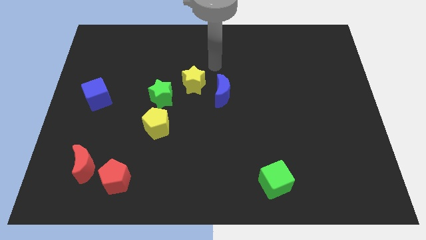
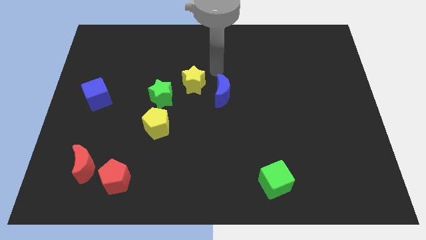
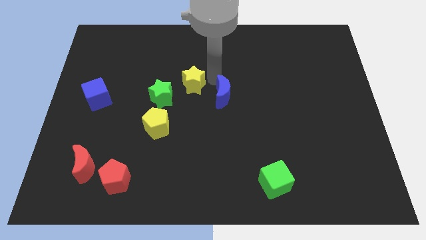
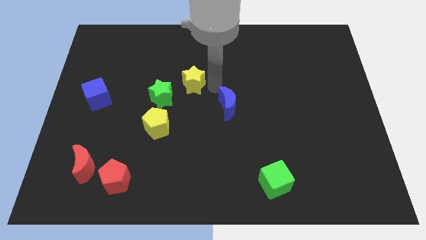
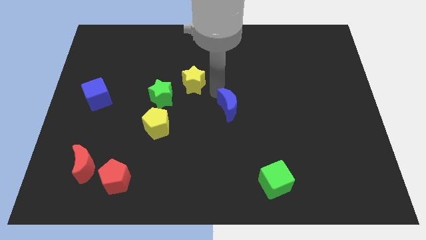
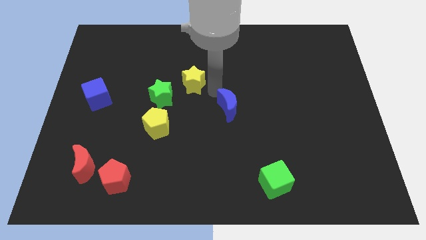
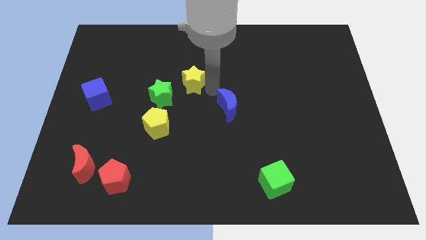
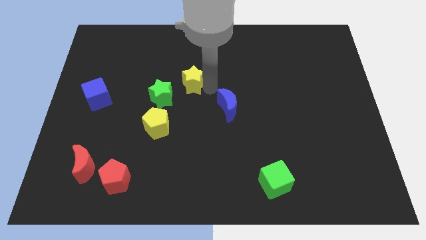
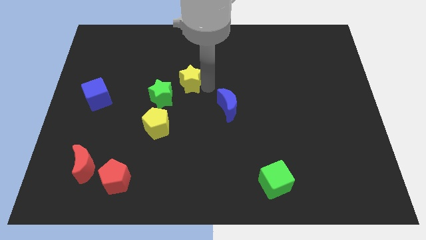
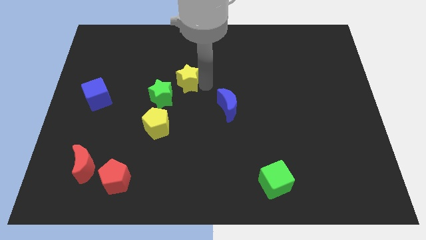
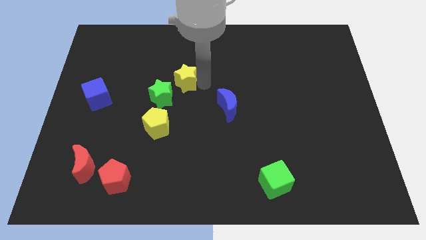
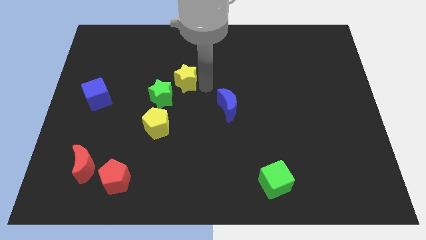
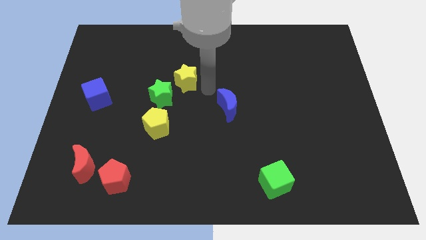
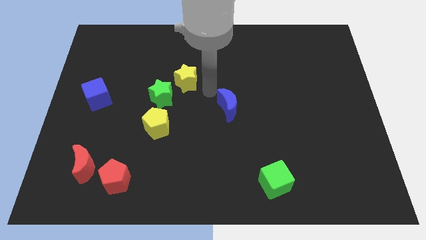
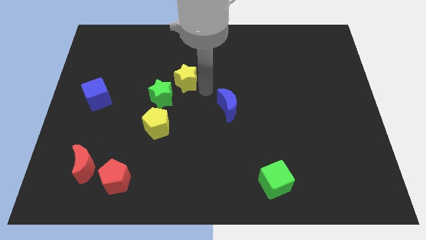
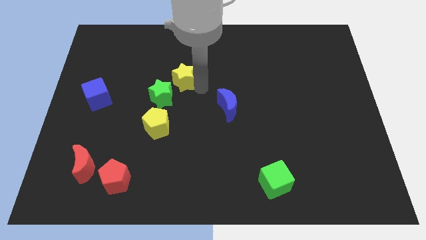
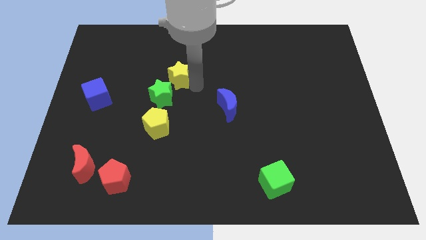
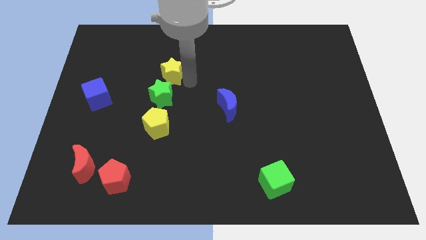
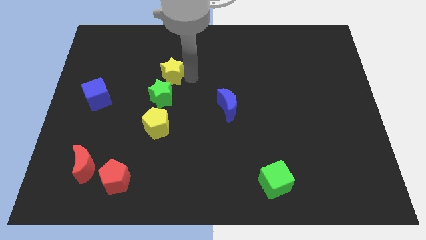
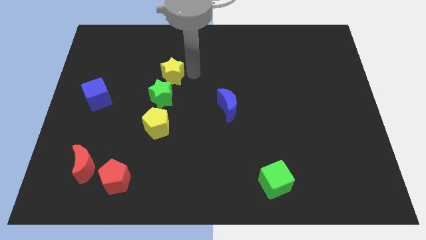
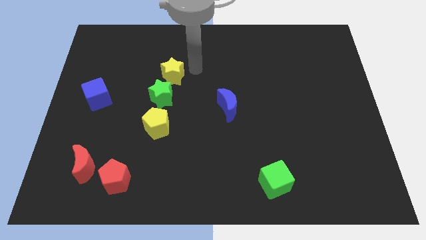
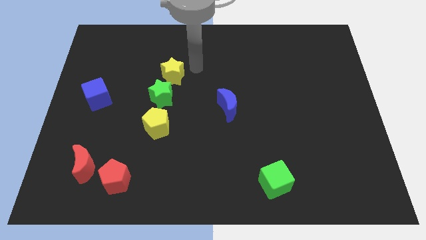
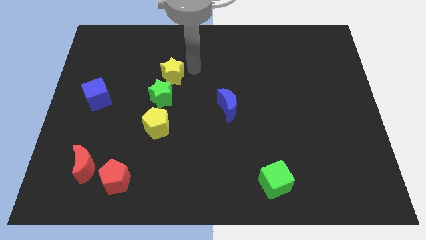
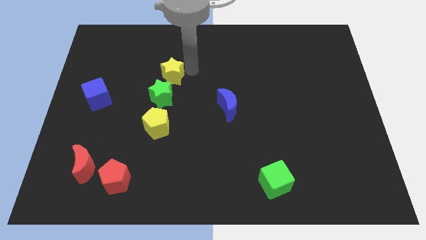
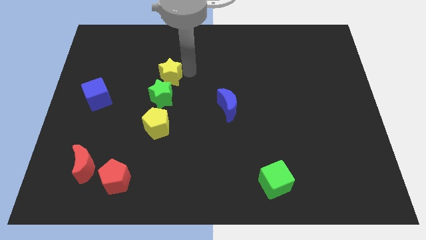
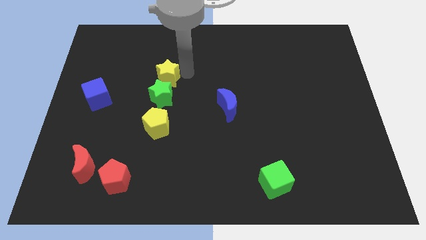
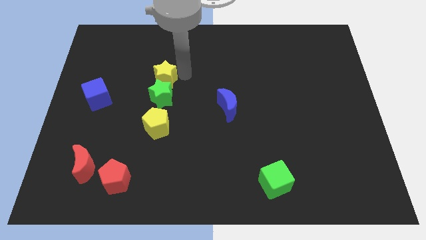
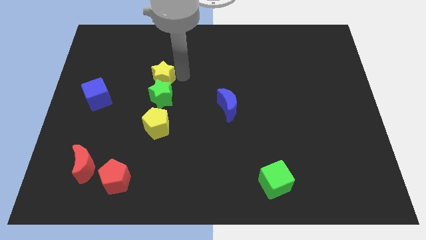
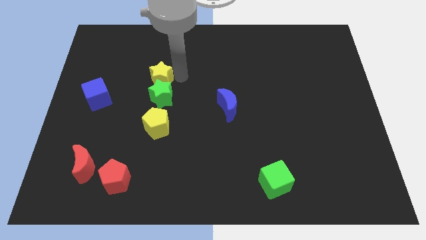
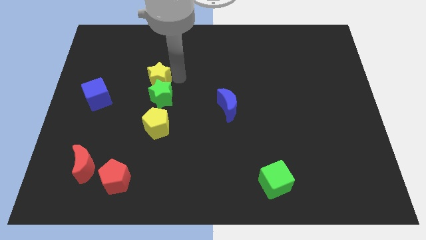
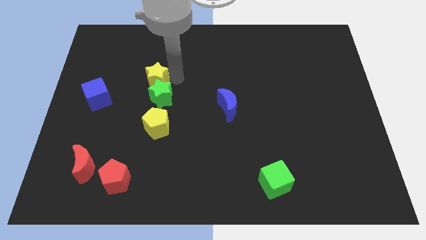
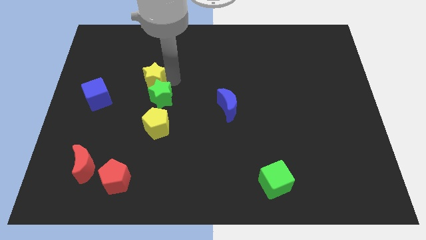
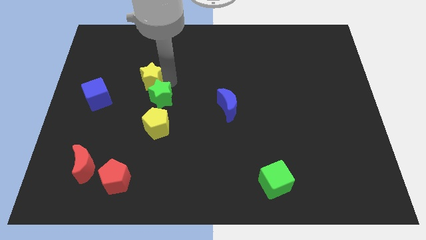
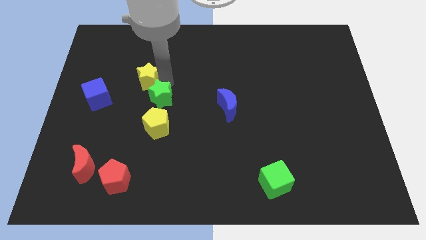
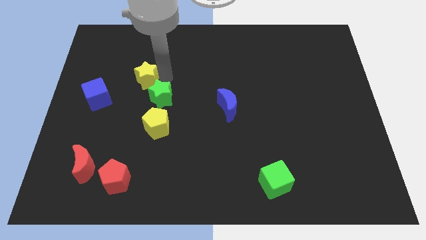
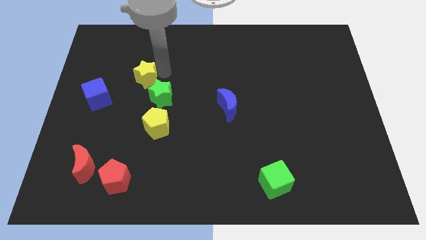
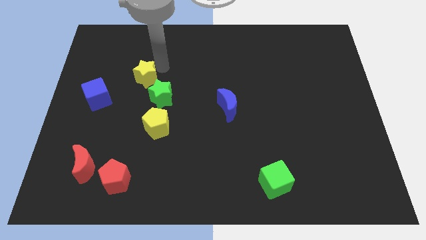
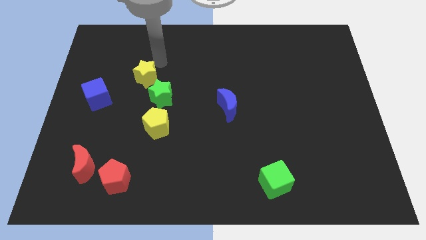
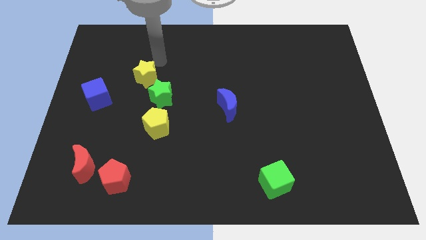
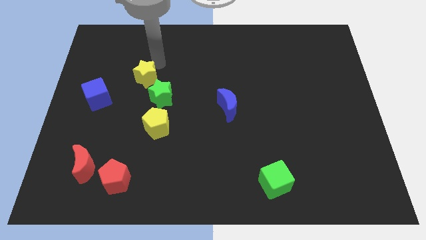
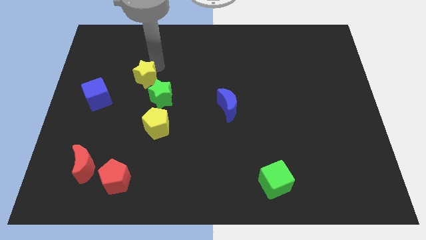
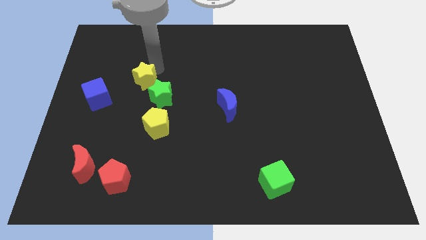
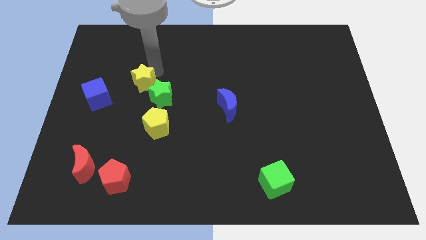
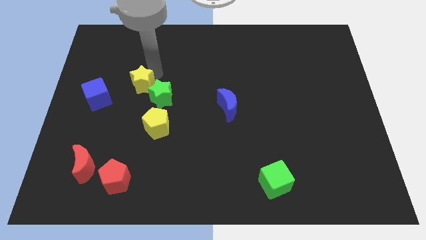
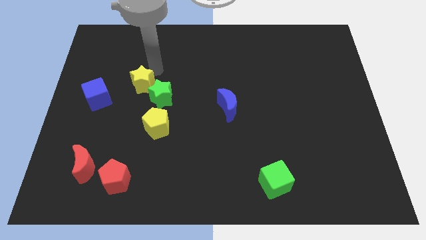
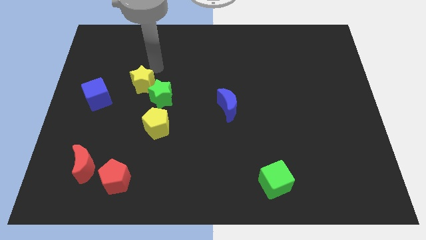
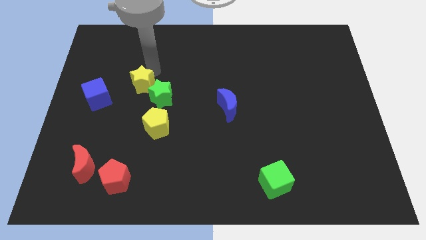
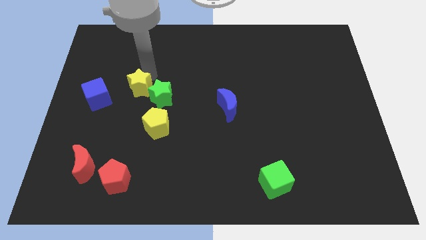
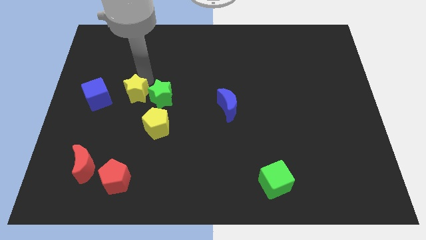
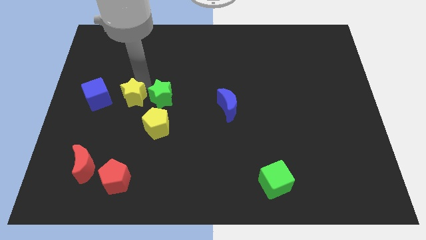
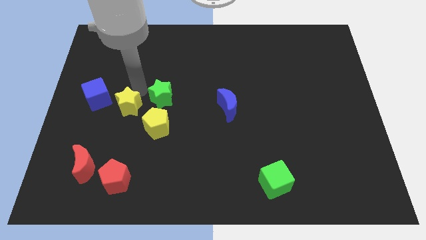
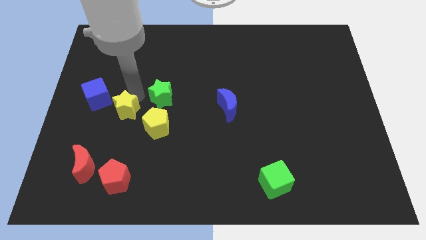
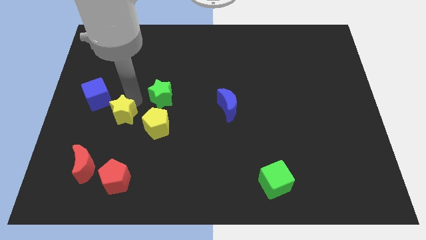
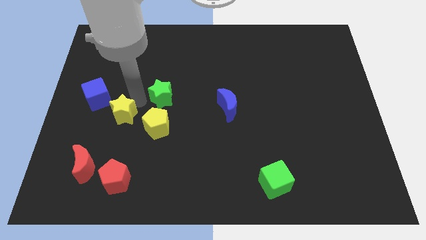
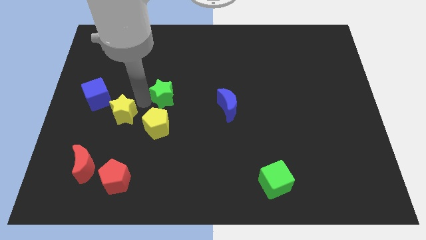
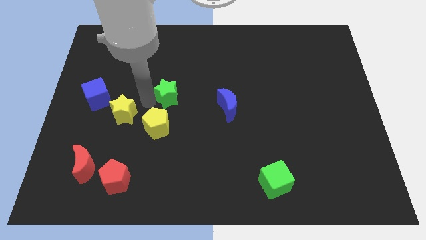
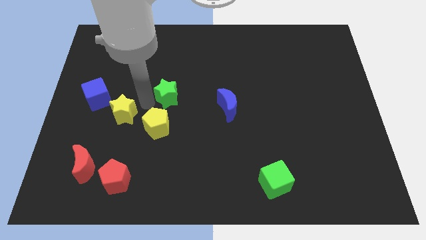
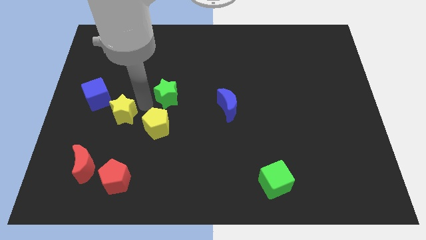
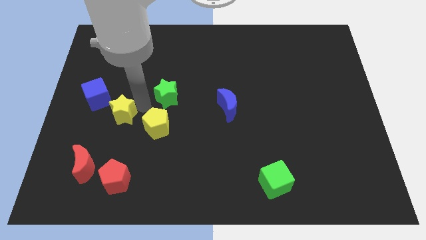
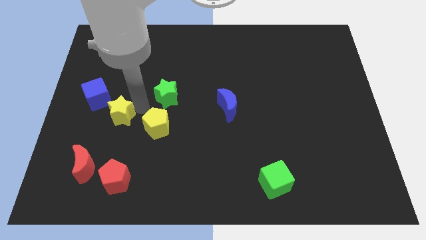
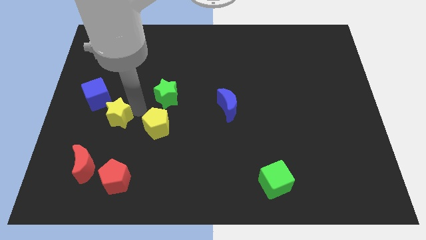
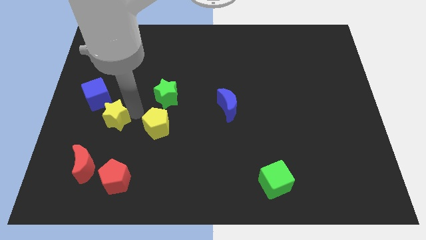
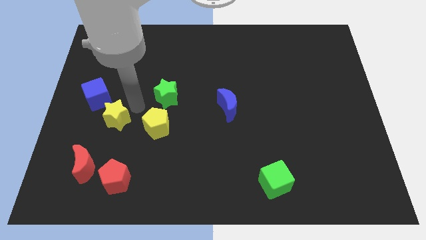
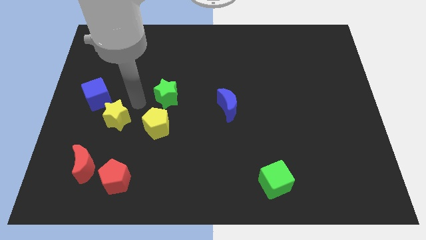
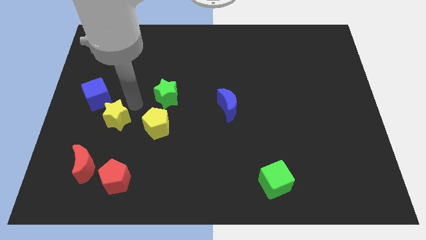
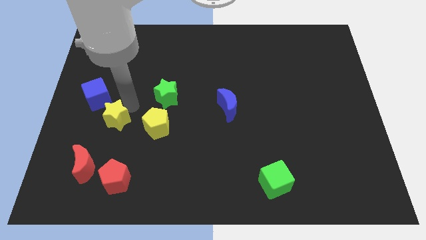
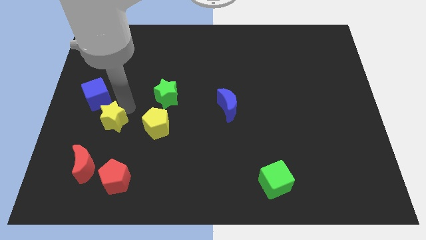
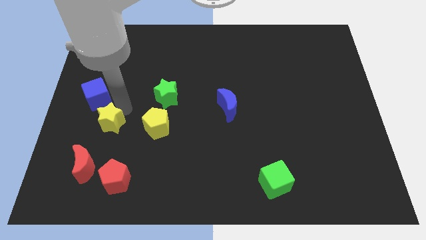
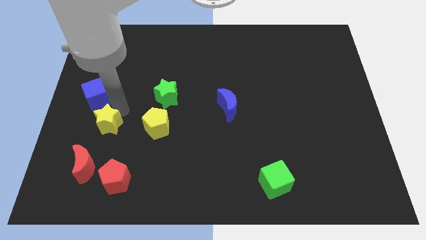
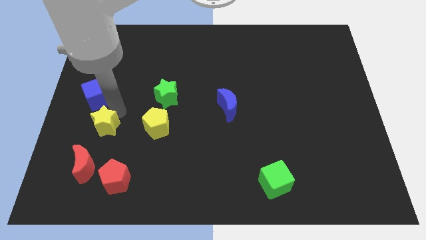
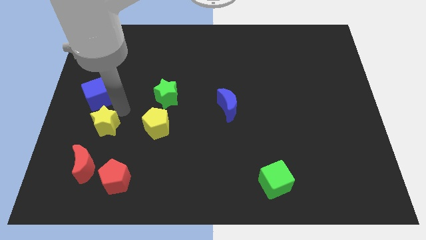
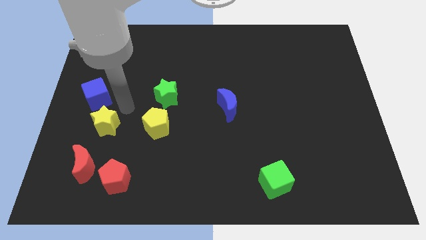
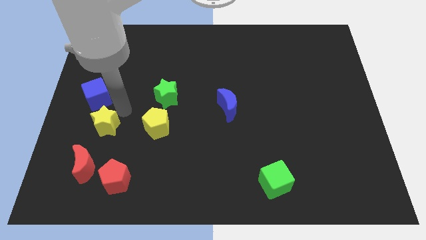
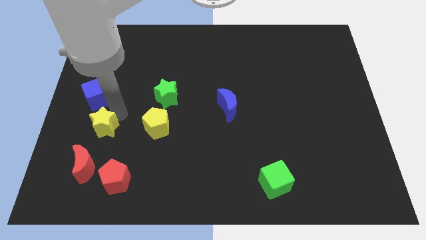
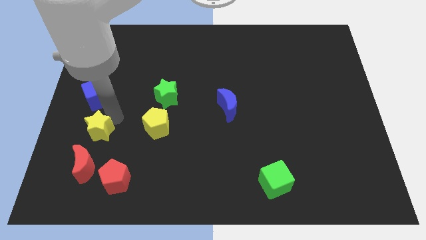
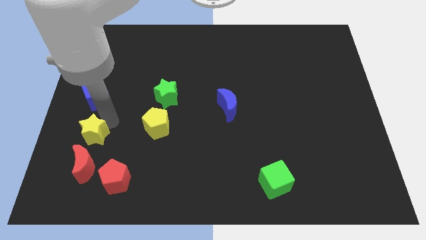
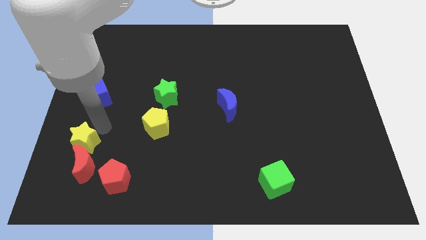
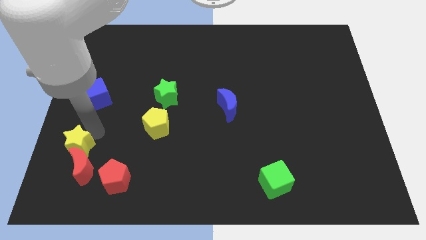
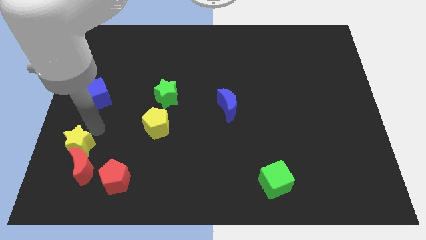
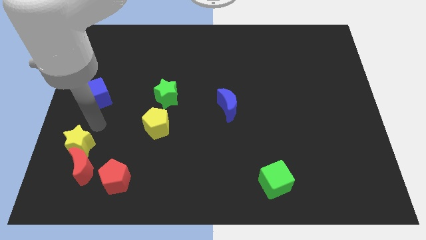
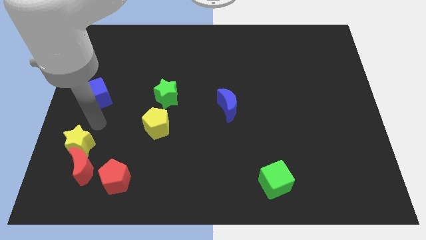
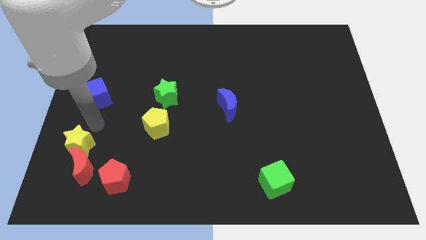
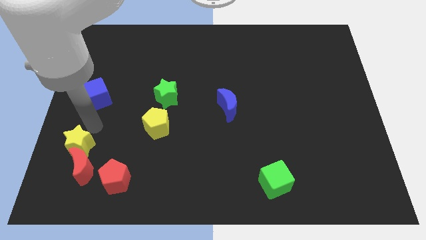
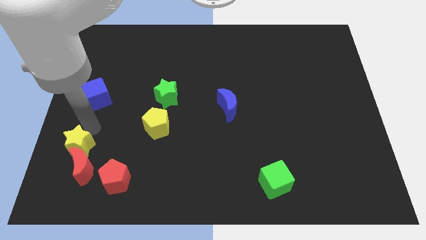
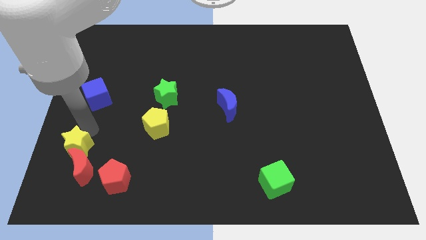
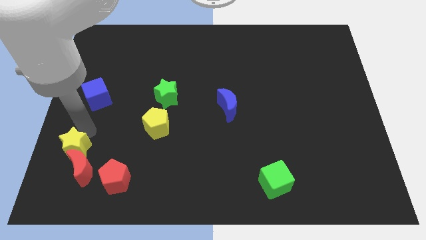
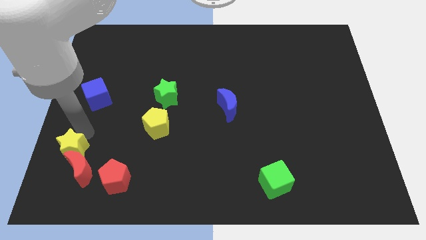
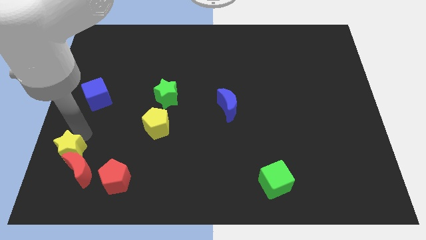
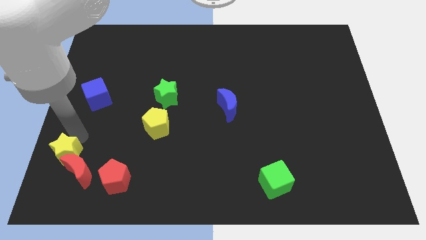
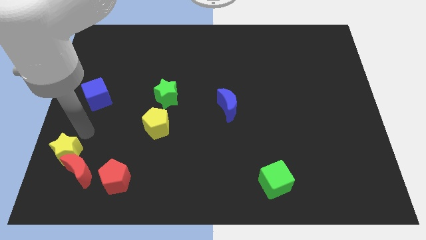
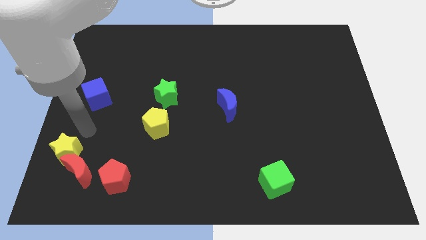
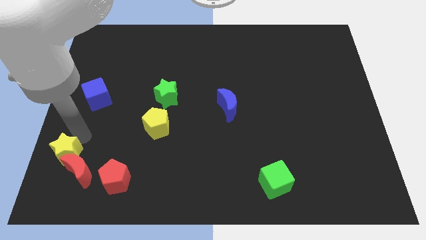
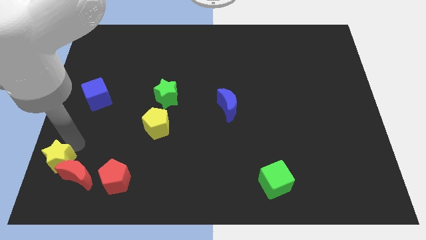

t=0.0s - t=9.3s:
move the yellow star to the bottom left
